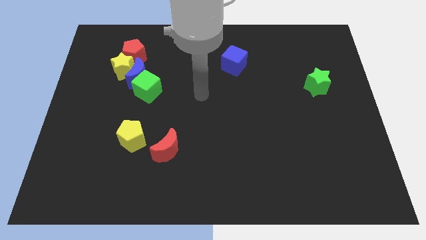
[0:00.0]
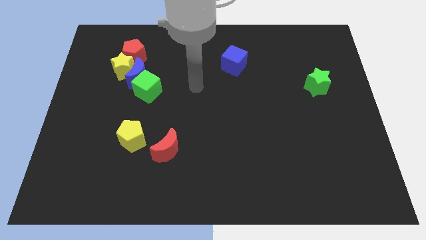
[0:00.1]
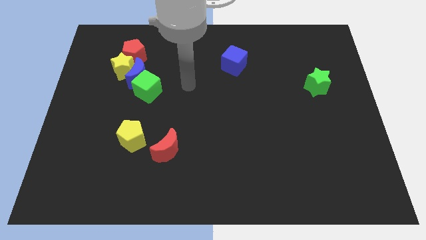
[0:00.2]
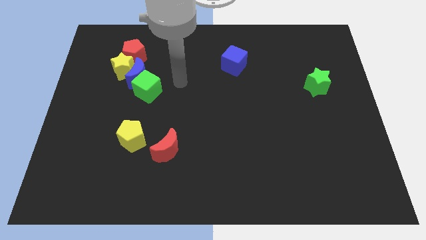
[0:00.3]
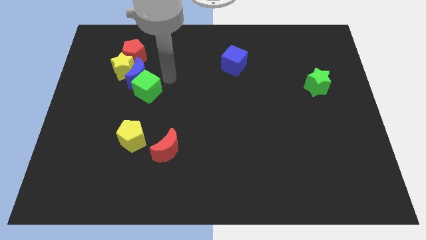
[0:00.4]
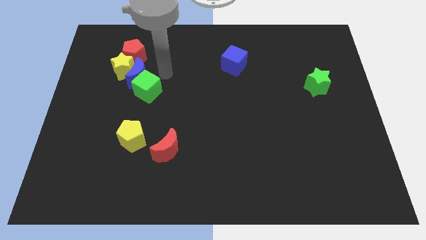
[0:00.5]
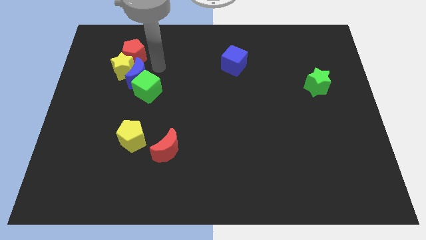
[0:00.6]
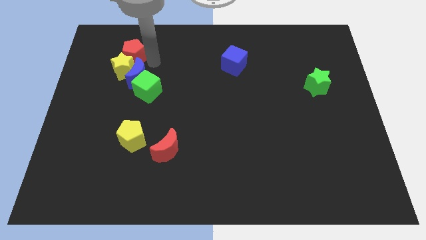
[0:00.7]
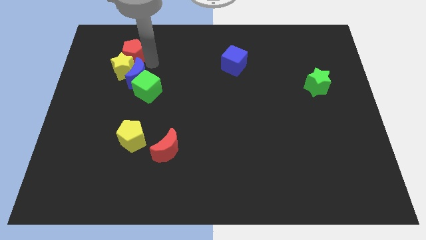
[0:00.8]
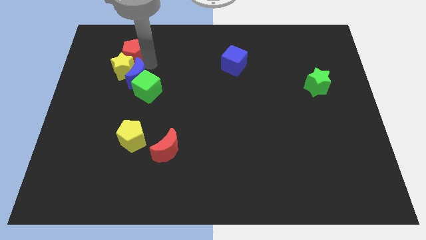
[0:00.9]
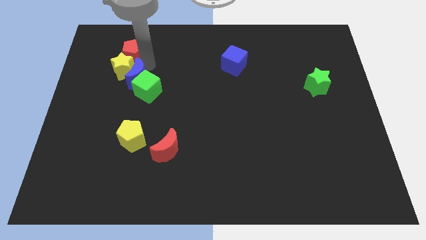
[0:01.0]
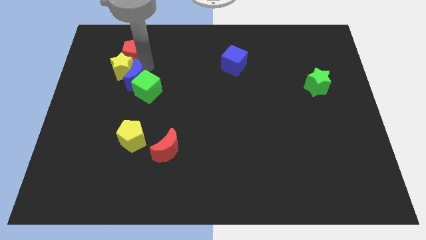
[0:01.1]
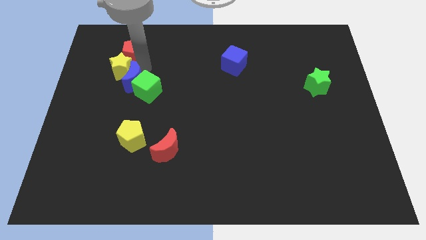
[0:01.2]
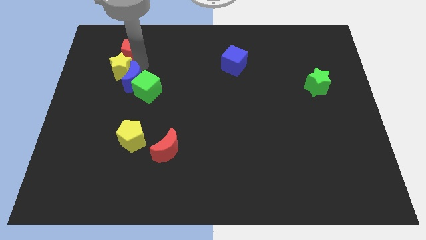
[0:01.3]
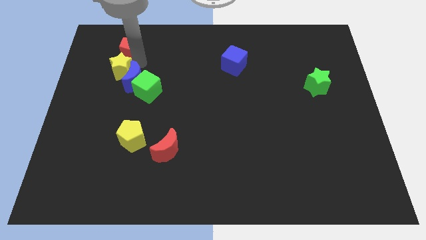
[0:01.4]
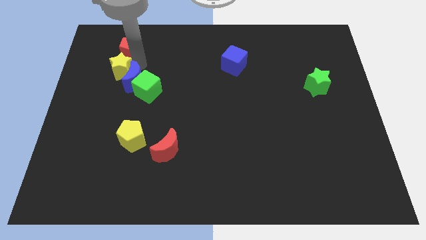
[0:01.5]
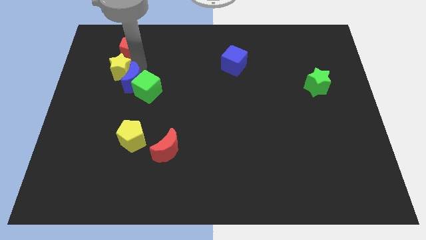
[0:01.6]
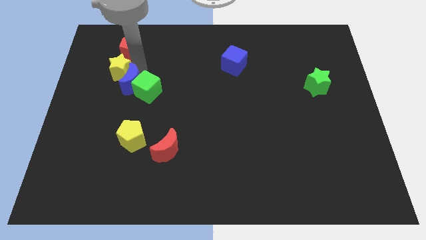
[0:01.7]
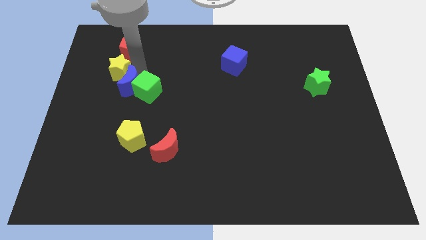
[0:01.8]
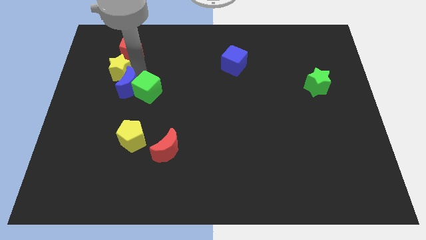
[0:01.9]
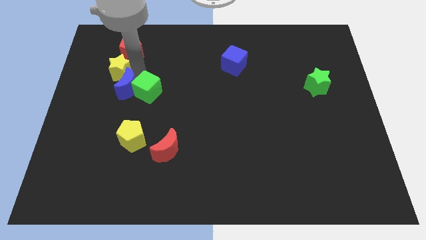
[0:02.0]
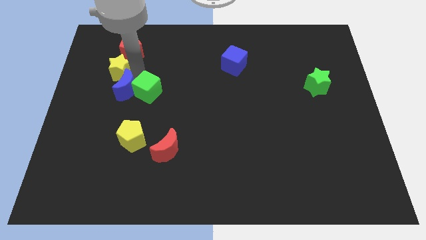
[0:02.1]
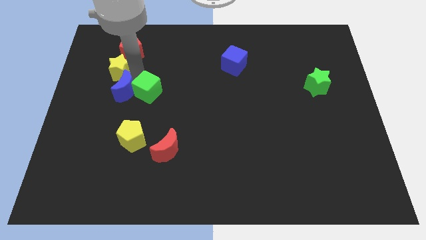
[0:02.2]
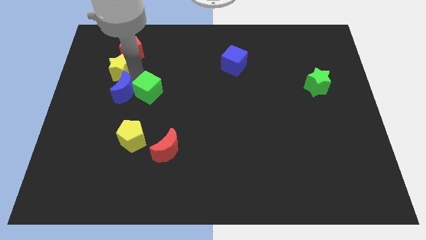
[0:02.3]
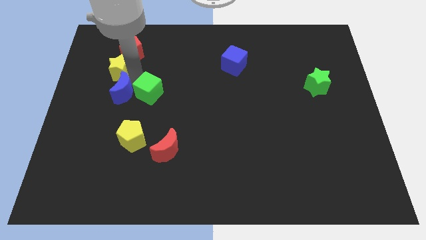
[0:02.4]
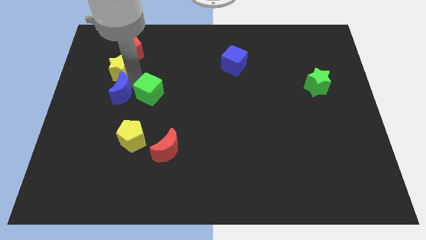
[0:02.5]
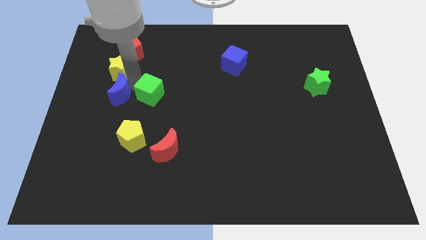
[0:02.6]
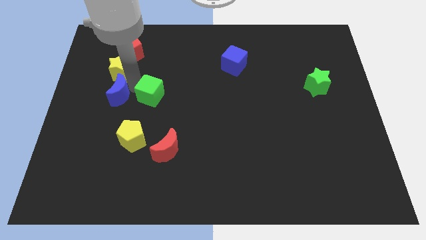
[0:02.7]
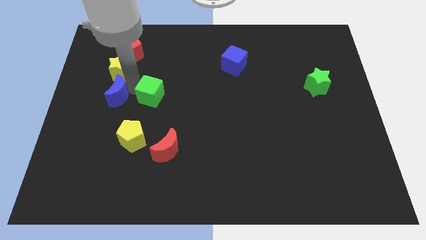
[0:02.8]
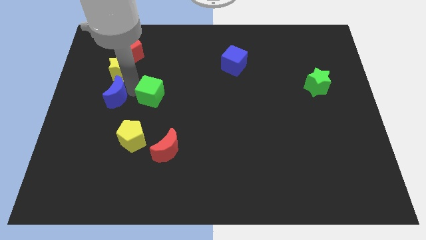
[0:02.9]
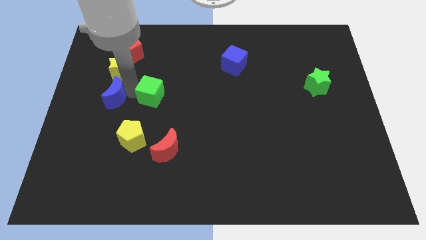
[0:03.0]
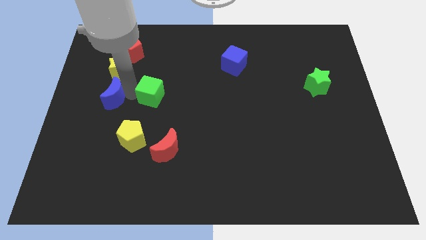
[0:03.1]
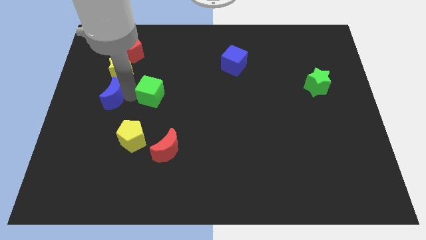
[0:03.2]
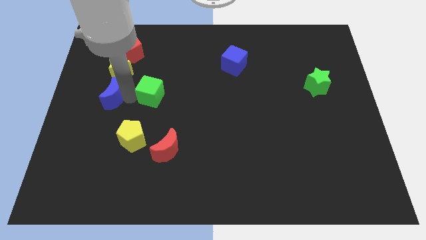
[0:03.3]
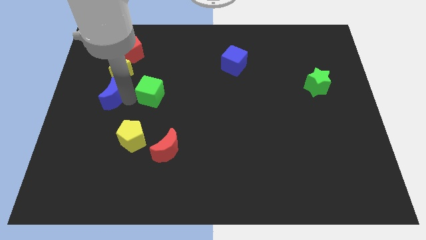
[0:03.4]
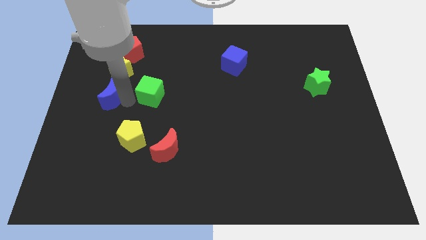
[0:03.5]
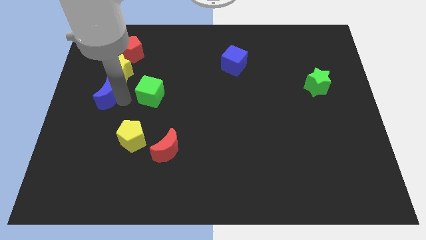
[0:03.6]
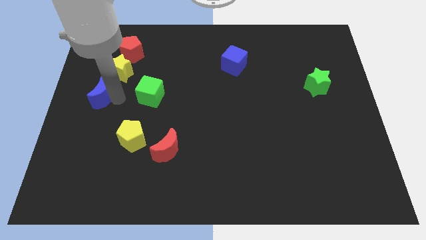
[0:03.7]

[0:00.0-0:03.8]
separate the blue moon from the group

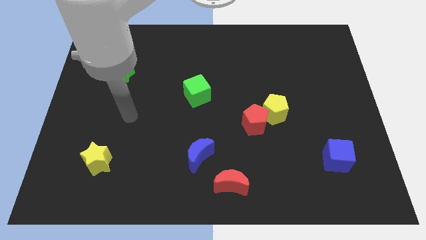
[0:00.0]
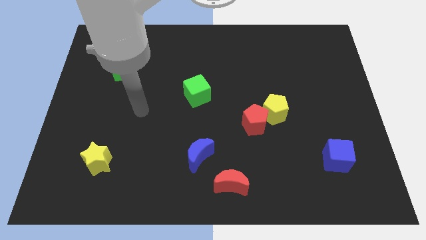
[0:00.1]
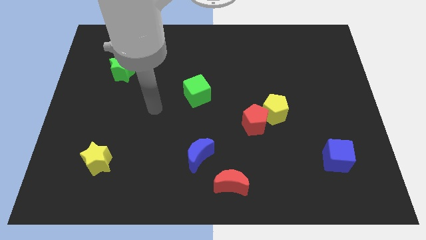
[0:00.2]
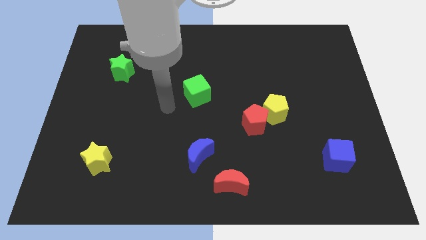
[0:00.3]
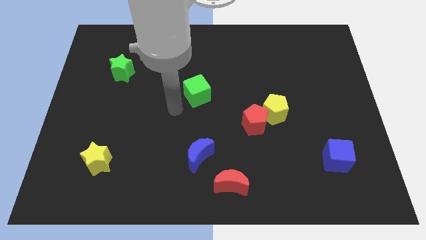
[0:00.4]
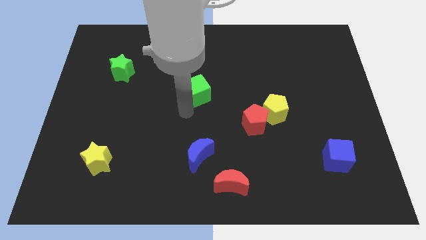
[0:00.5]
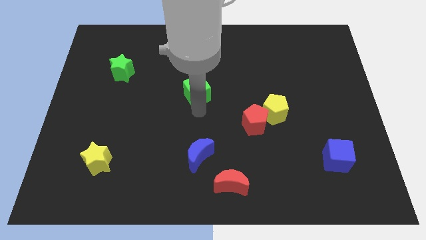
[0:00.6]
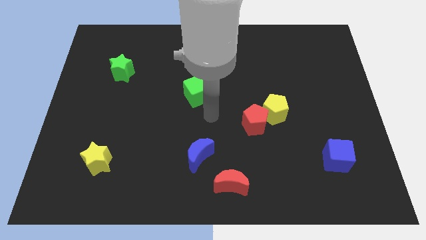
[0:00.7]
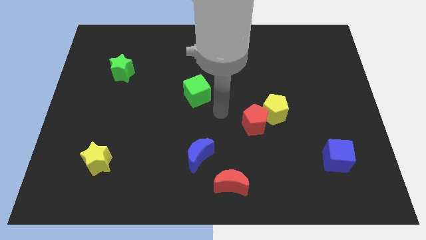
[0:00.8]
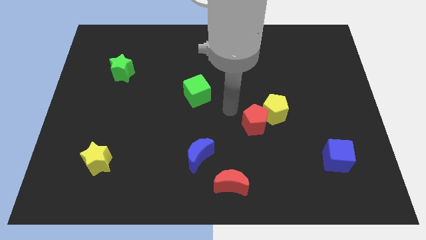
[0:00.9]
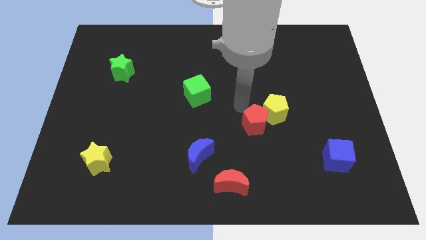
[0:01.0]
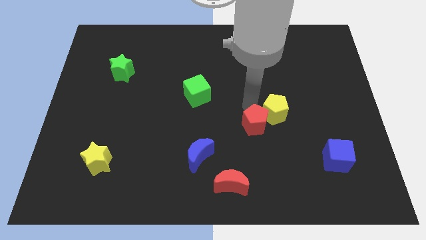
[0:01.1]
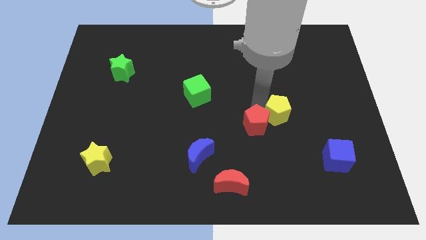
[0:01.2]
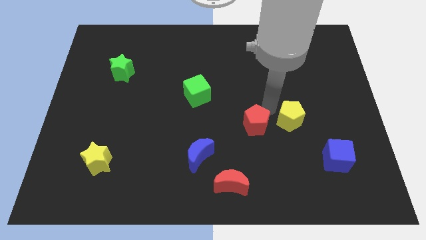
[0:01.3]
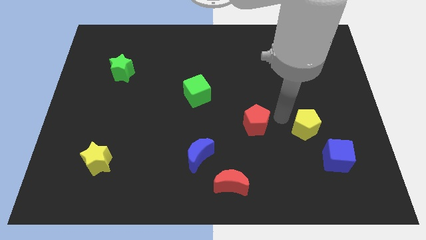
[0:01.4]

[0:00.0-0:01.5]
move the red pentagon away from the yellow pentagon

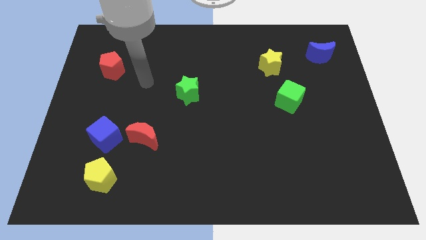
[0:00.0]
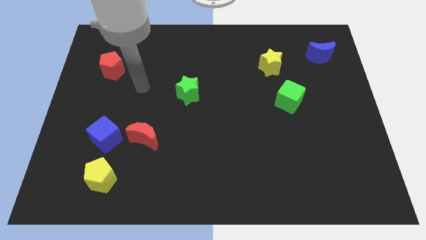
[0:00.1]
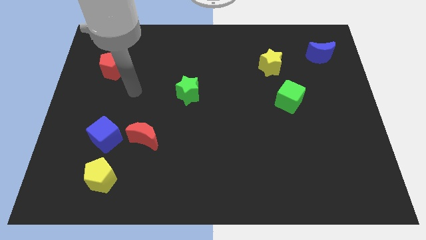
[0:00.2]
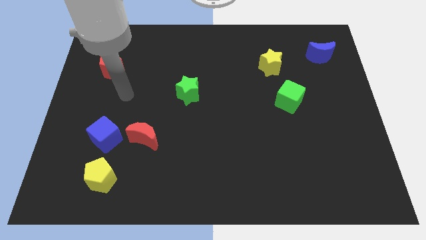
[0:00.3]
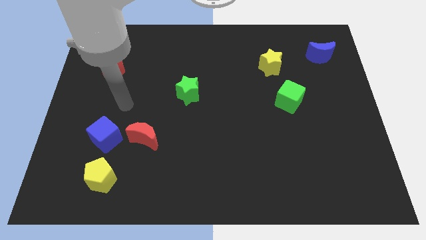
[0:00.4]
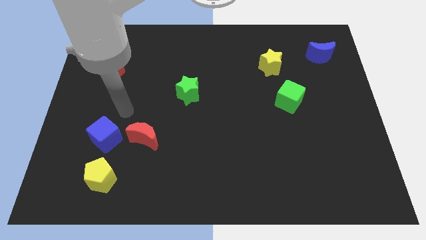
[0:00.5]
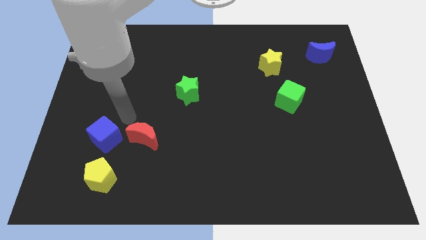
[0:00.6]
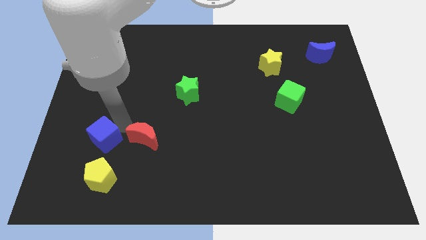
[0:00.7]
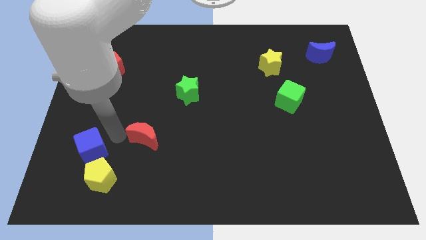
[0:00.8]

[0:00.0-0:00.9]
separate the red moon from the blue cube

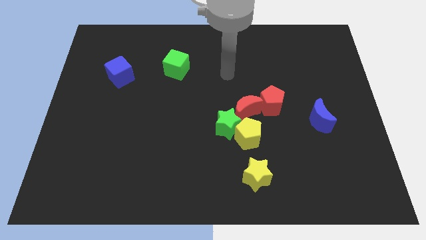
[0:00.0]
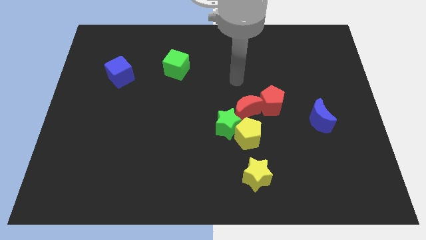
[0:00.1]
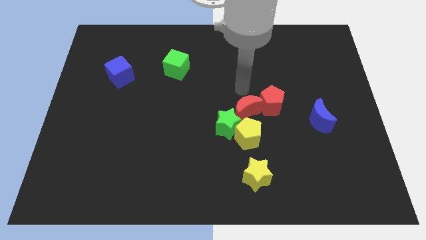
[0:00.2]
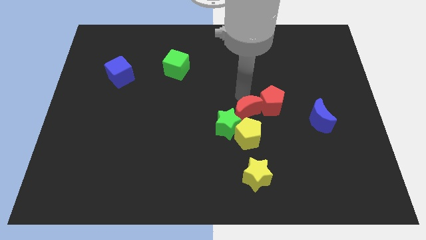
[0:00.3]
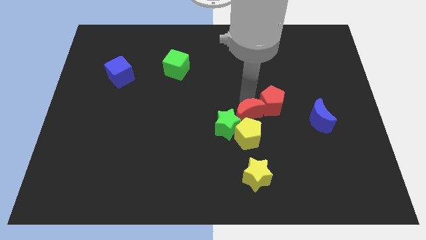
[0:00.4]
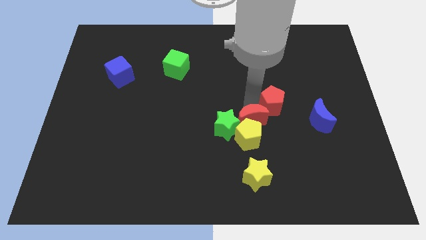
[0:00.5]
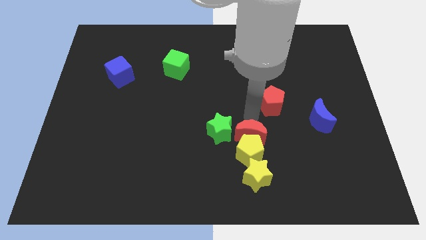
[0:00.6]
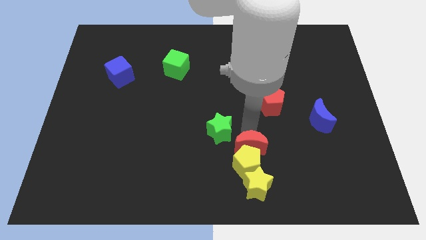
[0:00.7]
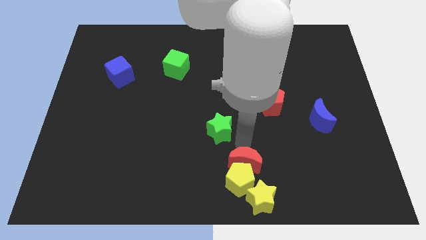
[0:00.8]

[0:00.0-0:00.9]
pull the green star apart from the yellow pentagon and red moon

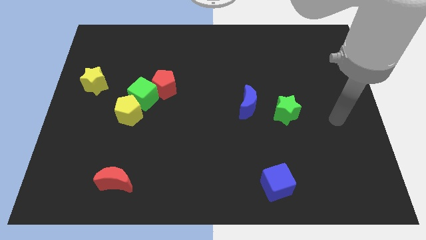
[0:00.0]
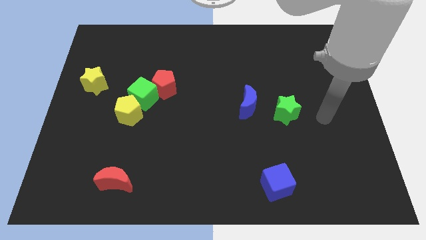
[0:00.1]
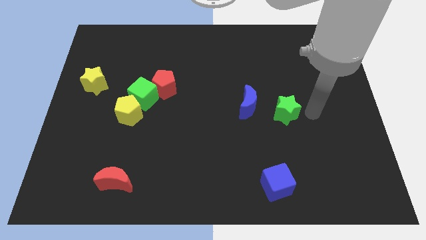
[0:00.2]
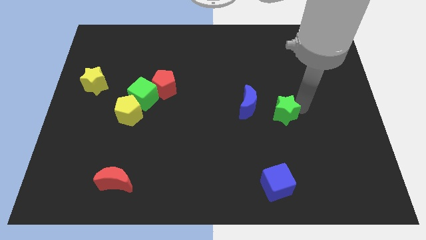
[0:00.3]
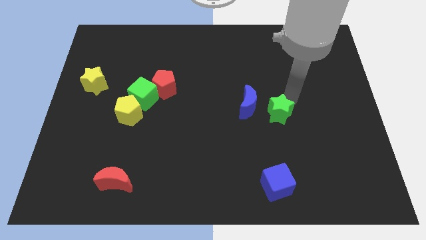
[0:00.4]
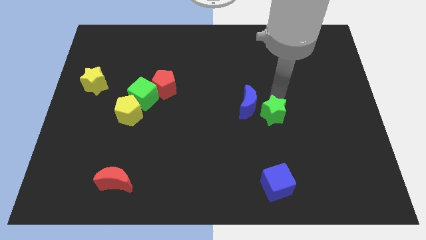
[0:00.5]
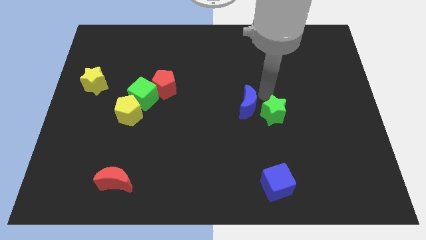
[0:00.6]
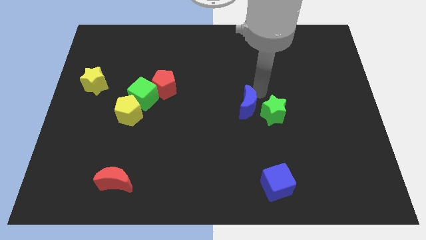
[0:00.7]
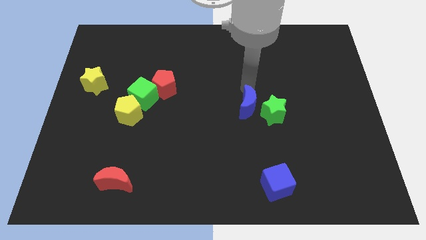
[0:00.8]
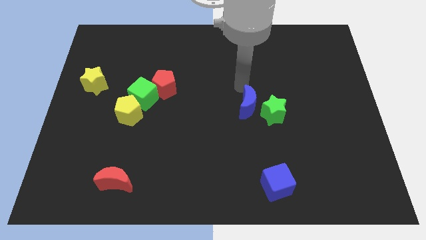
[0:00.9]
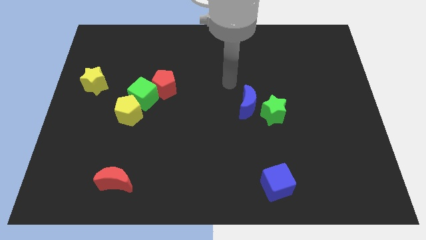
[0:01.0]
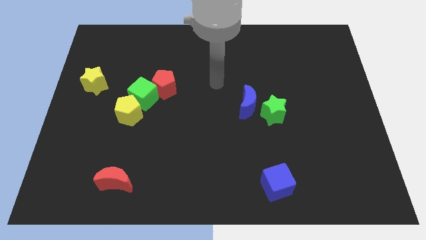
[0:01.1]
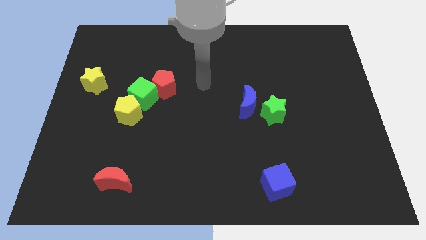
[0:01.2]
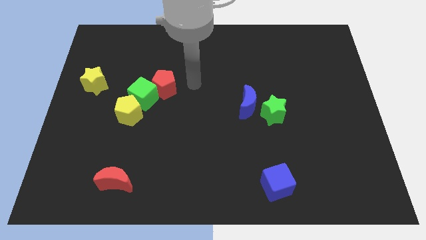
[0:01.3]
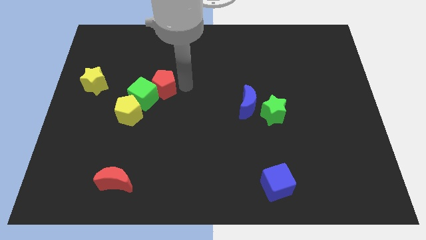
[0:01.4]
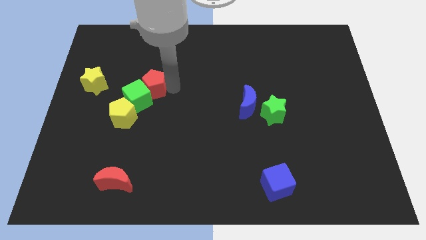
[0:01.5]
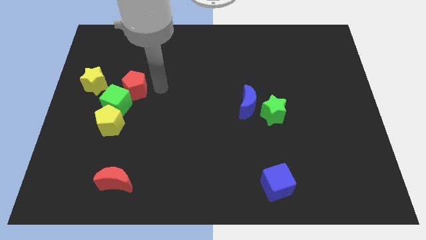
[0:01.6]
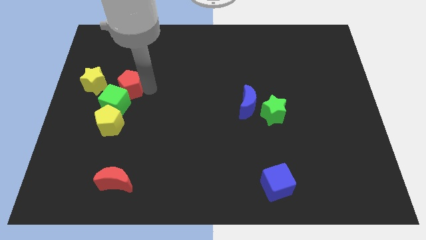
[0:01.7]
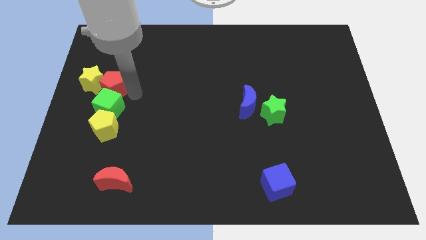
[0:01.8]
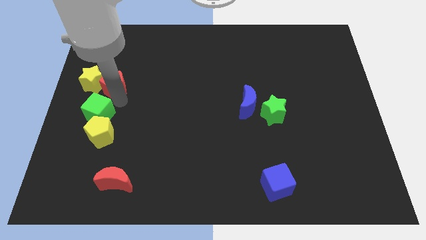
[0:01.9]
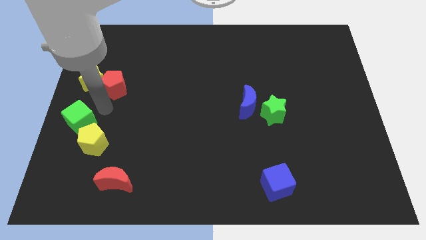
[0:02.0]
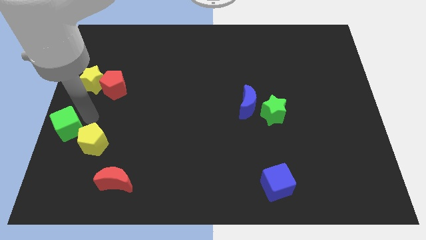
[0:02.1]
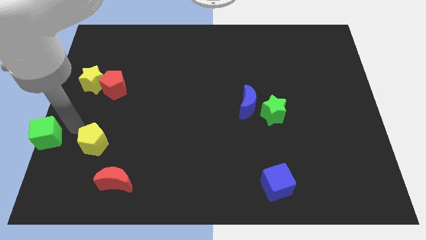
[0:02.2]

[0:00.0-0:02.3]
move the yellow pentagon away from the green cube

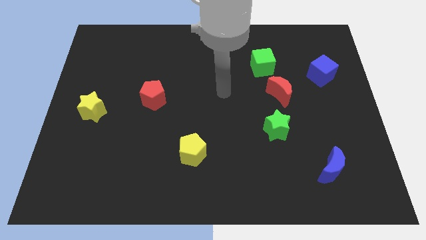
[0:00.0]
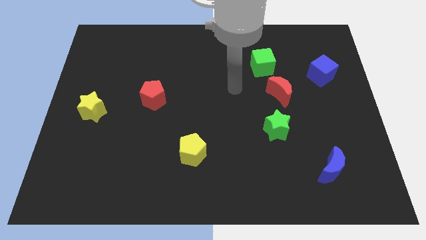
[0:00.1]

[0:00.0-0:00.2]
separate the red moon from the green cube
